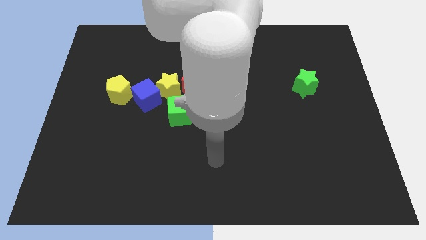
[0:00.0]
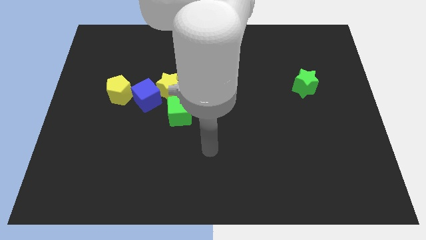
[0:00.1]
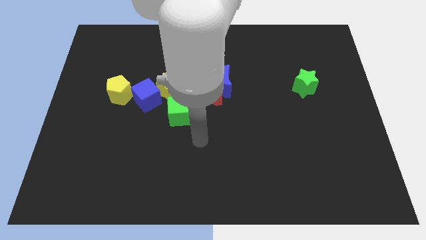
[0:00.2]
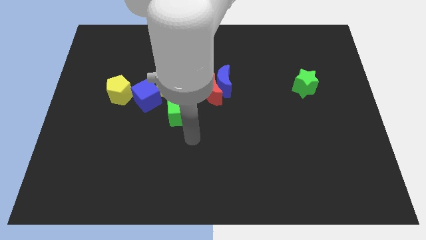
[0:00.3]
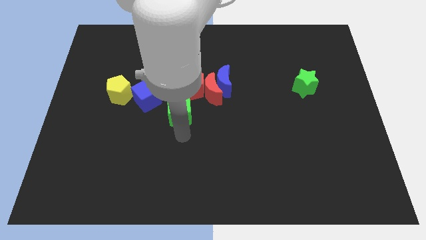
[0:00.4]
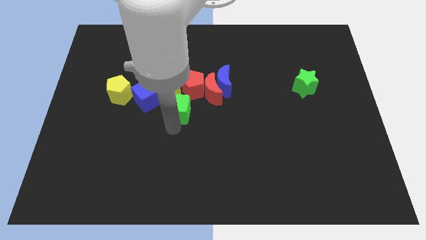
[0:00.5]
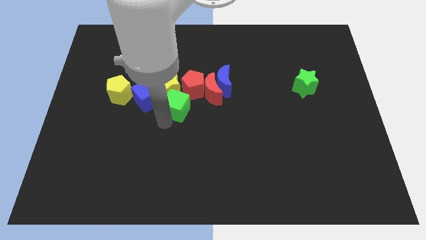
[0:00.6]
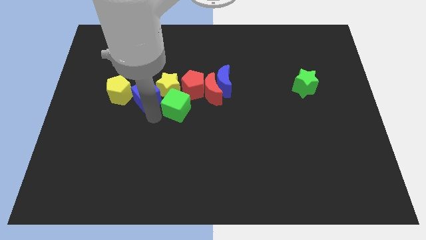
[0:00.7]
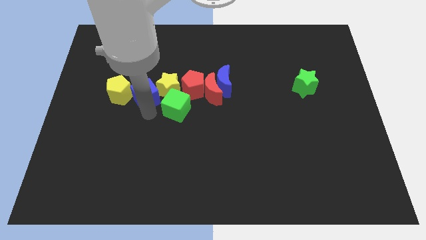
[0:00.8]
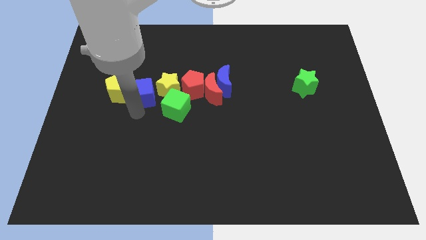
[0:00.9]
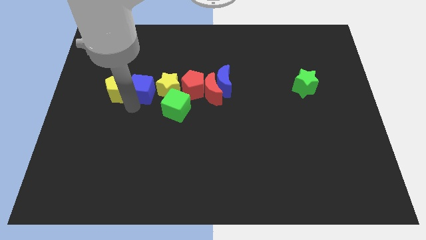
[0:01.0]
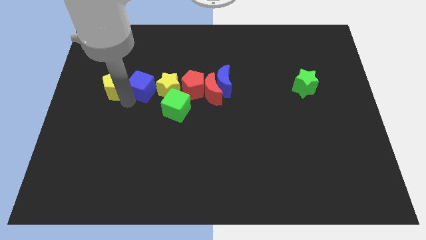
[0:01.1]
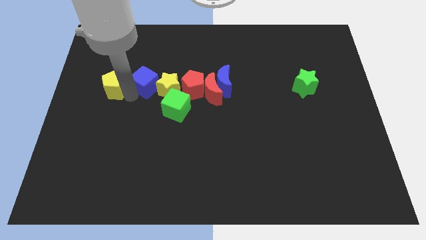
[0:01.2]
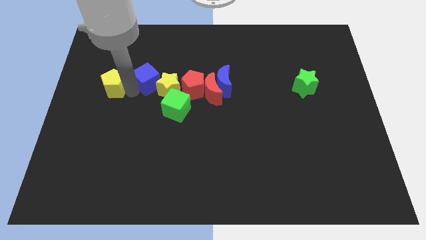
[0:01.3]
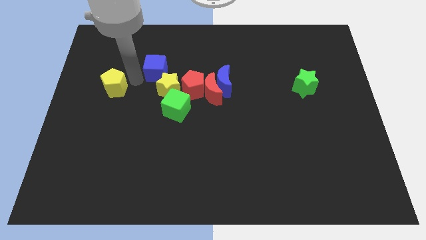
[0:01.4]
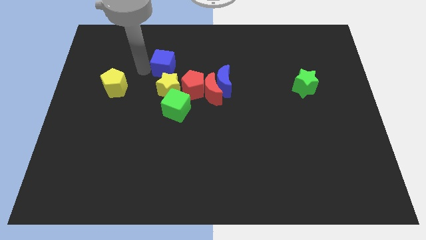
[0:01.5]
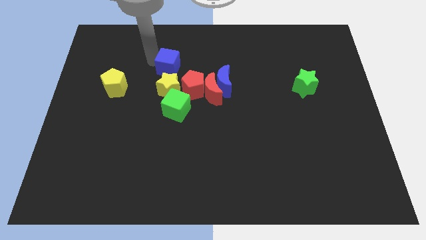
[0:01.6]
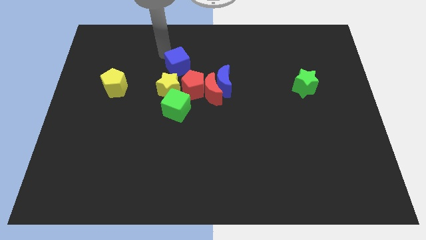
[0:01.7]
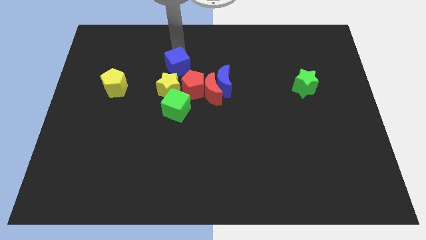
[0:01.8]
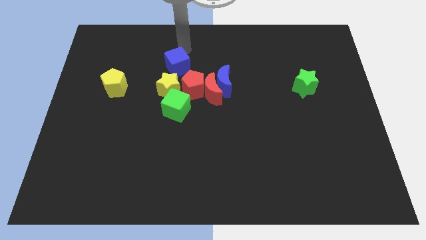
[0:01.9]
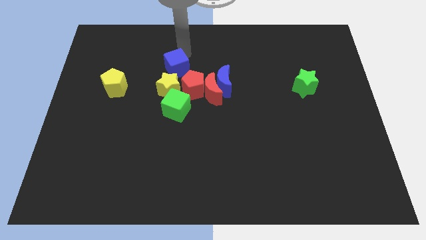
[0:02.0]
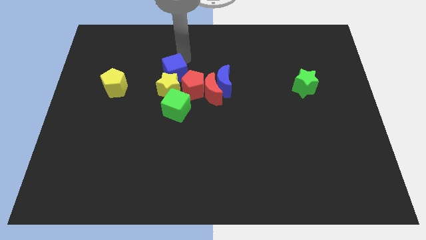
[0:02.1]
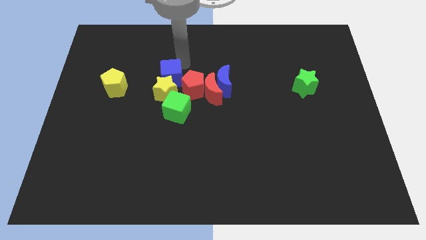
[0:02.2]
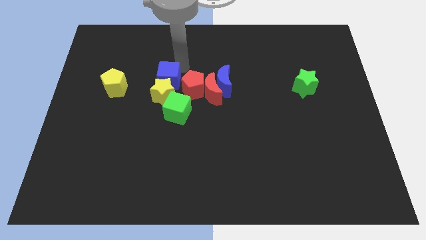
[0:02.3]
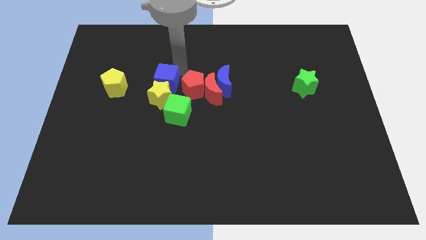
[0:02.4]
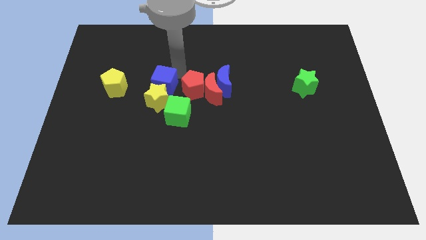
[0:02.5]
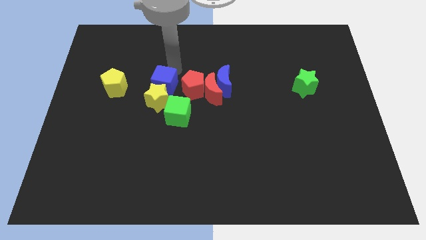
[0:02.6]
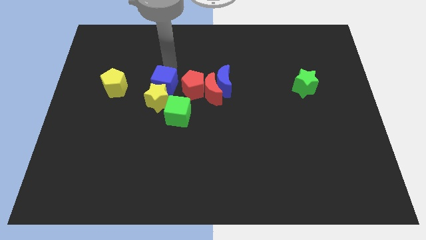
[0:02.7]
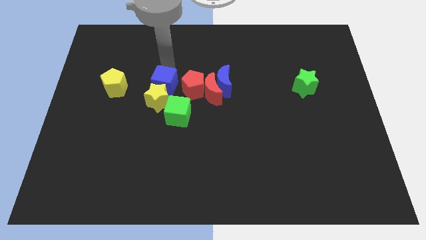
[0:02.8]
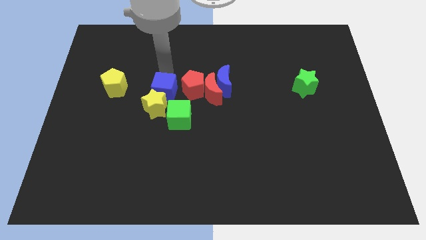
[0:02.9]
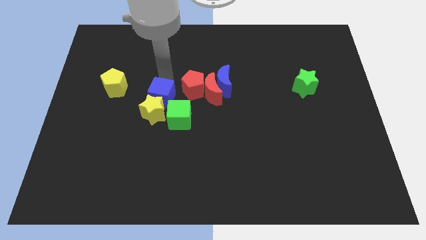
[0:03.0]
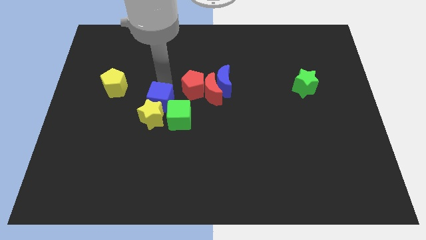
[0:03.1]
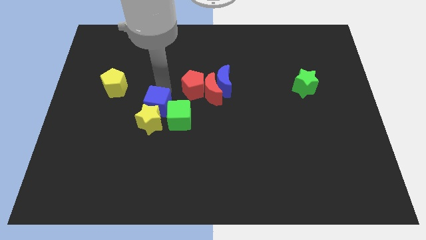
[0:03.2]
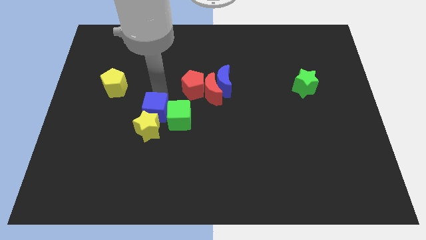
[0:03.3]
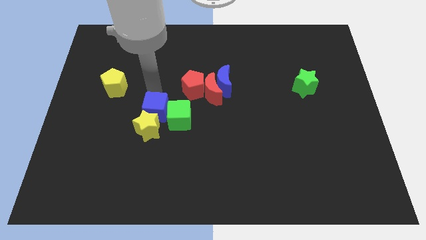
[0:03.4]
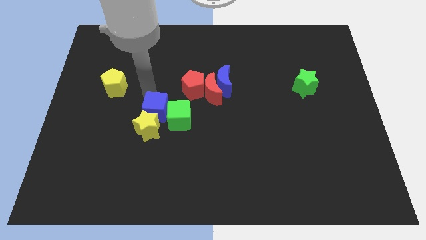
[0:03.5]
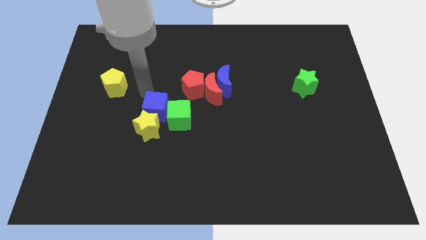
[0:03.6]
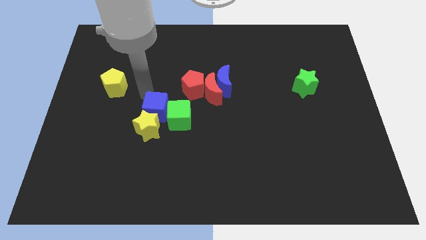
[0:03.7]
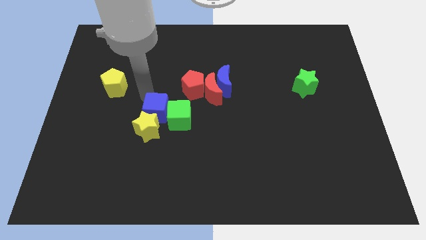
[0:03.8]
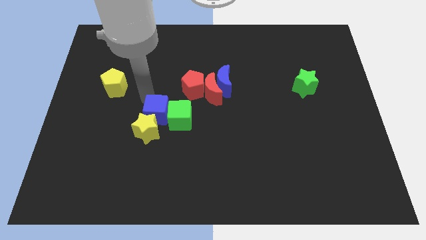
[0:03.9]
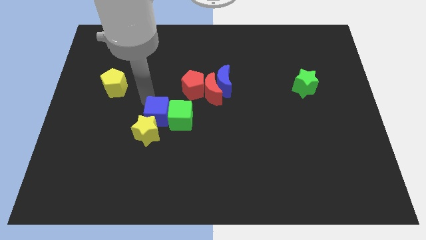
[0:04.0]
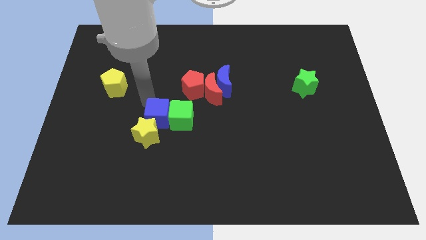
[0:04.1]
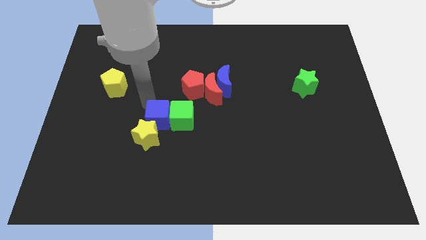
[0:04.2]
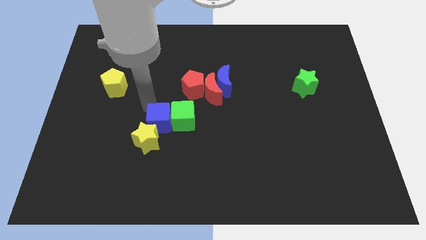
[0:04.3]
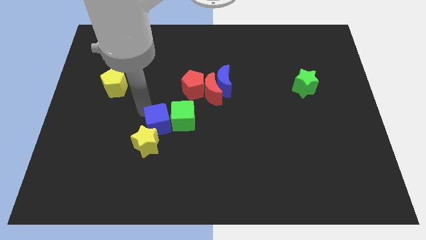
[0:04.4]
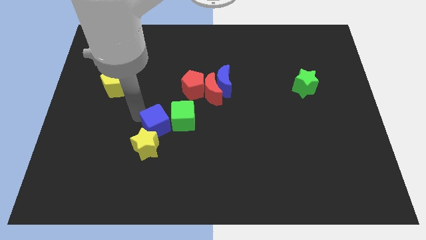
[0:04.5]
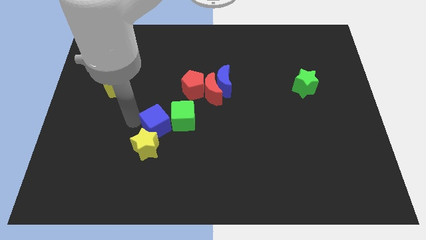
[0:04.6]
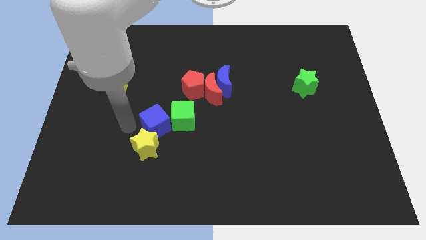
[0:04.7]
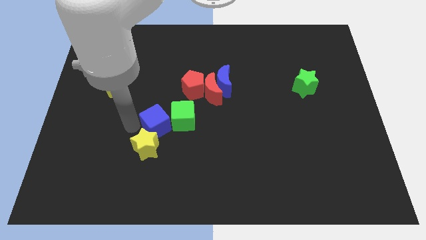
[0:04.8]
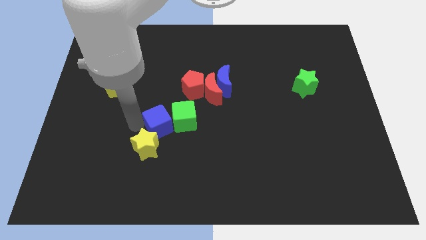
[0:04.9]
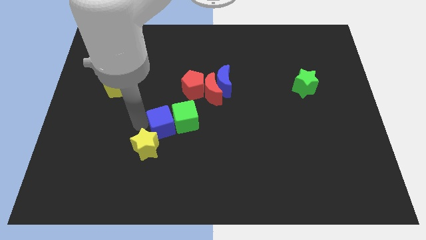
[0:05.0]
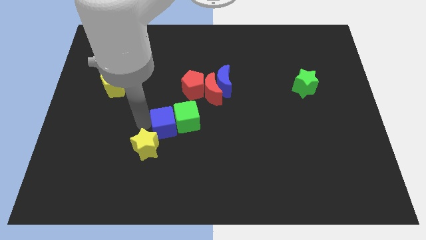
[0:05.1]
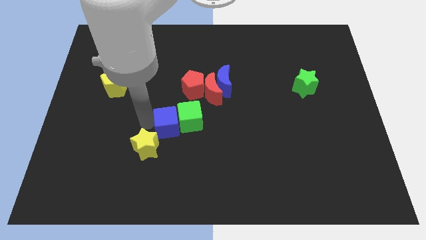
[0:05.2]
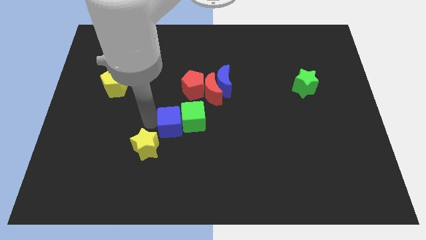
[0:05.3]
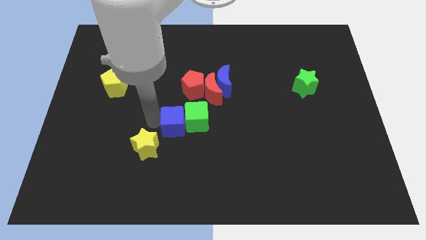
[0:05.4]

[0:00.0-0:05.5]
put the blue cube to the bottom of the red pentagon

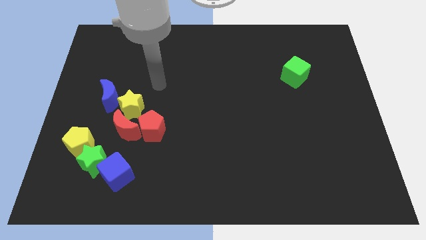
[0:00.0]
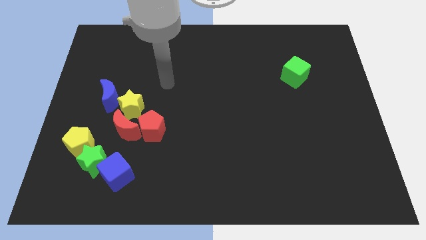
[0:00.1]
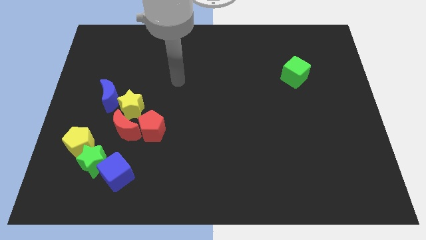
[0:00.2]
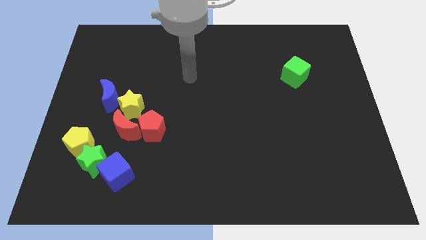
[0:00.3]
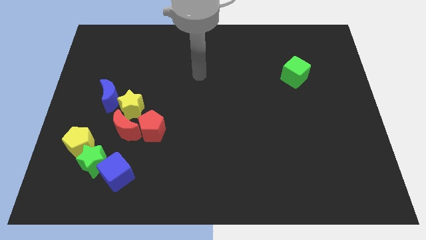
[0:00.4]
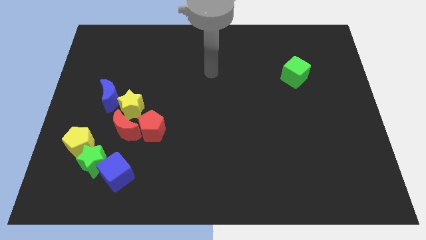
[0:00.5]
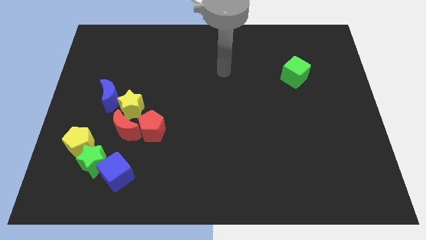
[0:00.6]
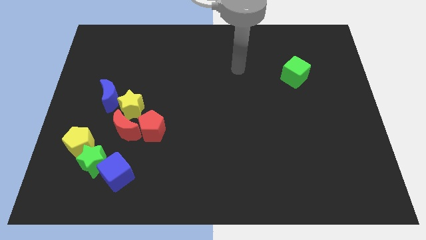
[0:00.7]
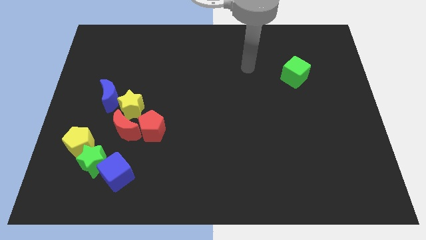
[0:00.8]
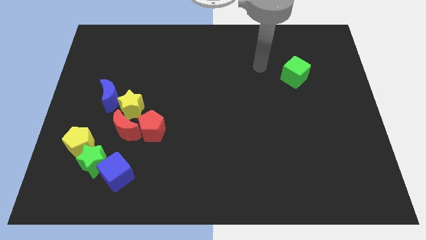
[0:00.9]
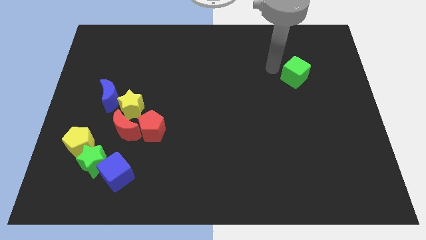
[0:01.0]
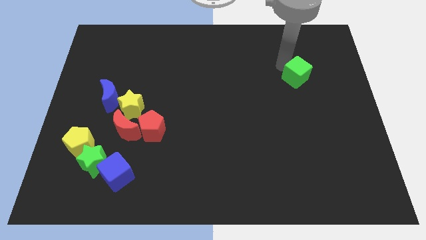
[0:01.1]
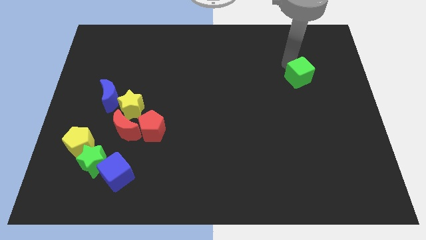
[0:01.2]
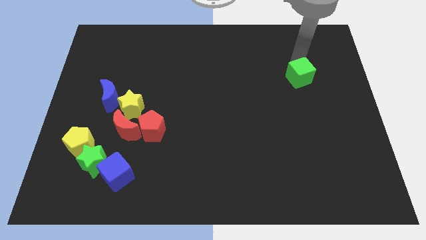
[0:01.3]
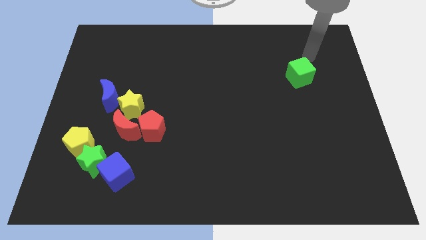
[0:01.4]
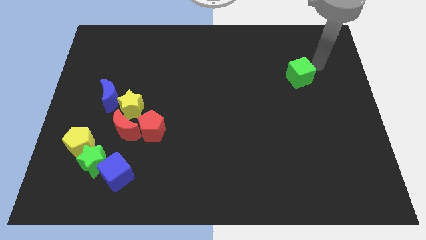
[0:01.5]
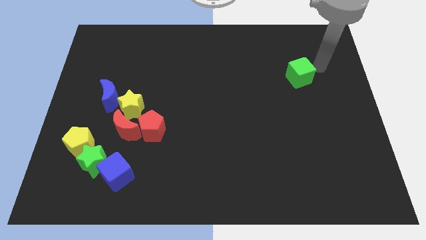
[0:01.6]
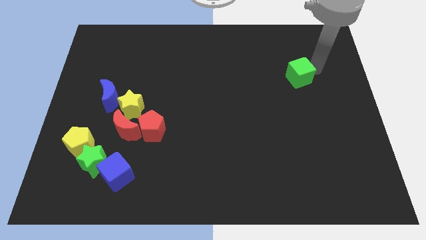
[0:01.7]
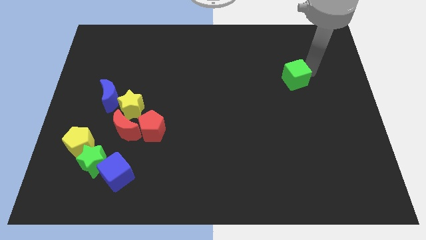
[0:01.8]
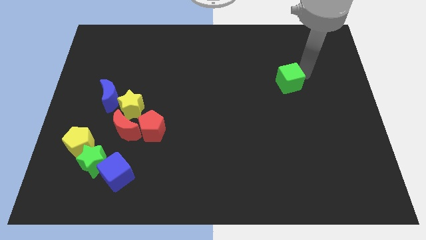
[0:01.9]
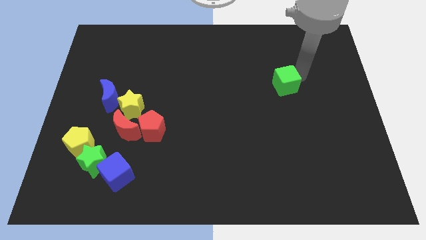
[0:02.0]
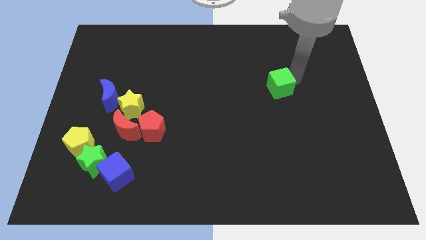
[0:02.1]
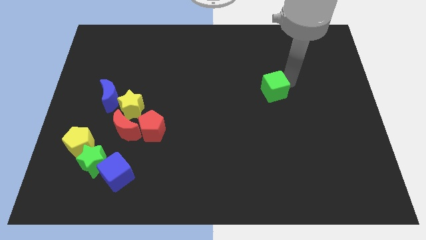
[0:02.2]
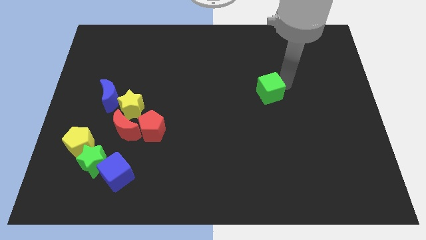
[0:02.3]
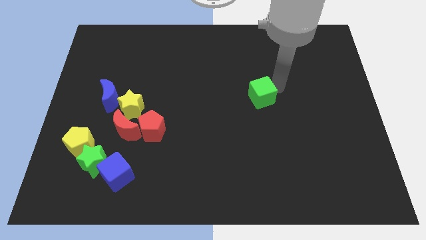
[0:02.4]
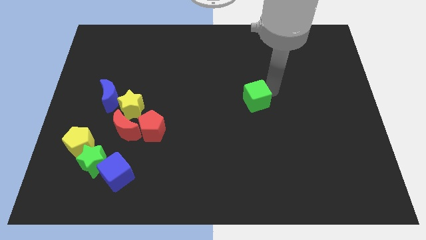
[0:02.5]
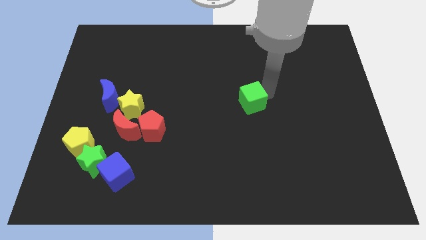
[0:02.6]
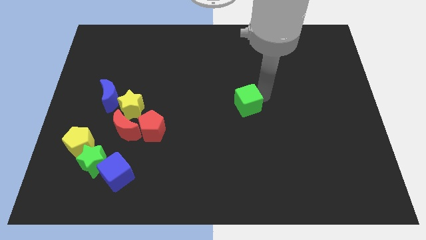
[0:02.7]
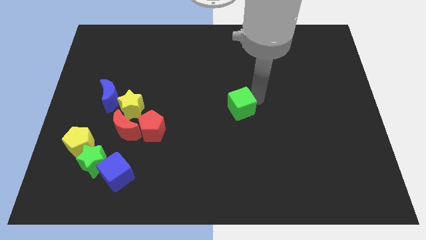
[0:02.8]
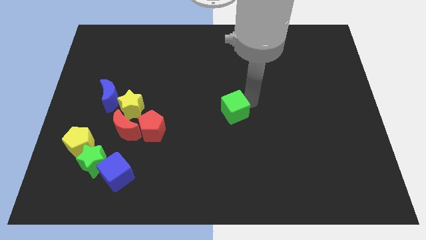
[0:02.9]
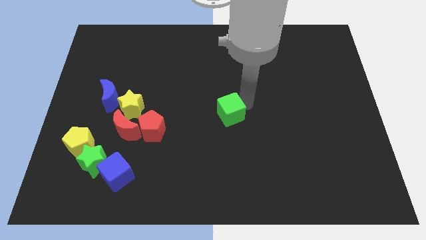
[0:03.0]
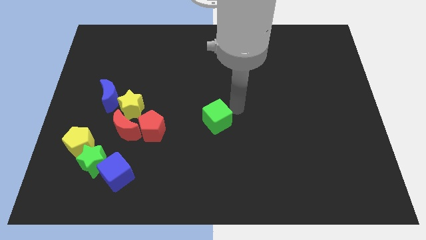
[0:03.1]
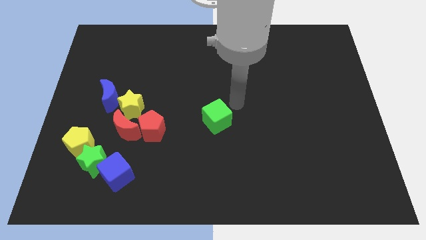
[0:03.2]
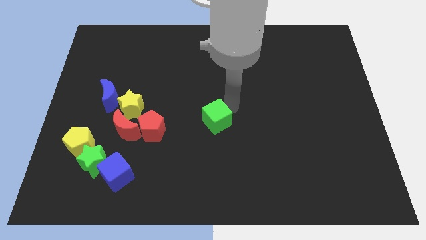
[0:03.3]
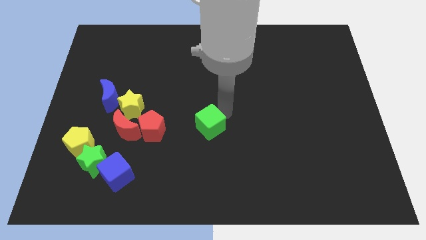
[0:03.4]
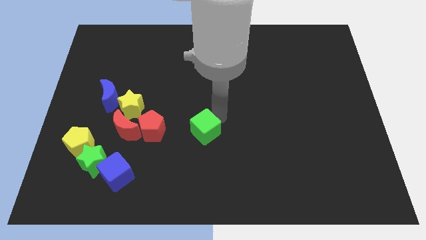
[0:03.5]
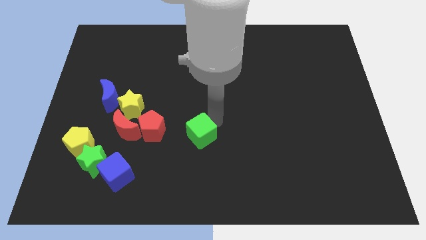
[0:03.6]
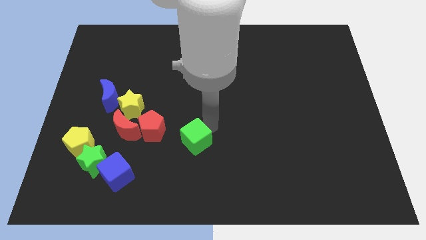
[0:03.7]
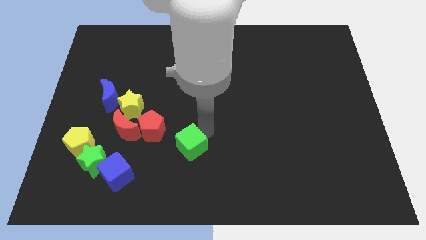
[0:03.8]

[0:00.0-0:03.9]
move the green cube diagonally down and to the right of the red pentagon
